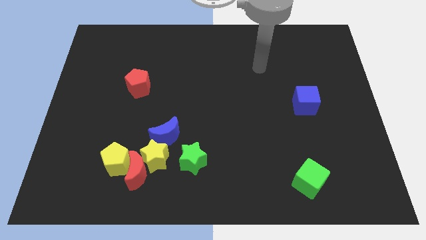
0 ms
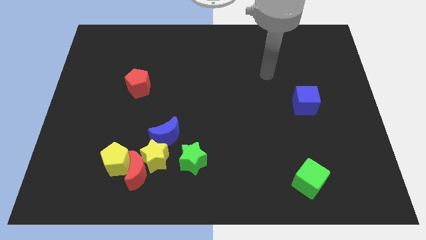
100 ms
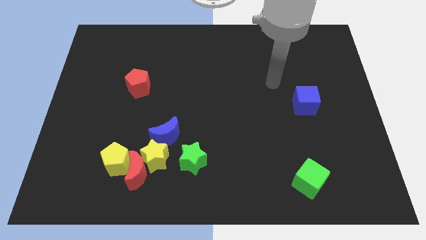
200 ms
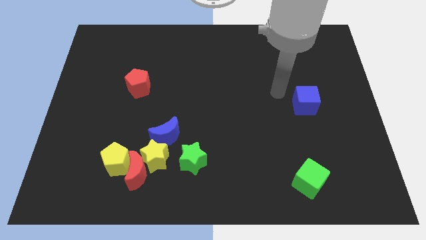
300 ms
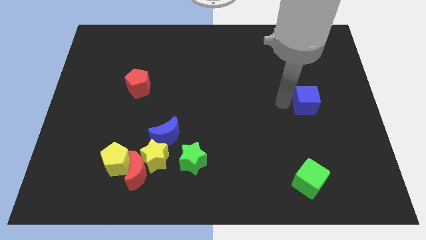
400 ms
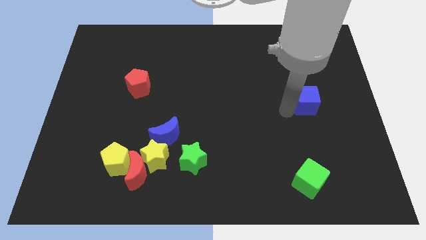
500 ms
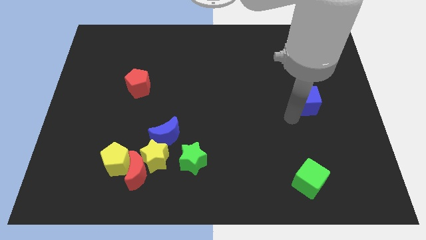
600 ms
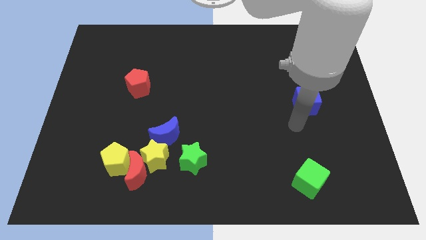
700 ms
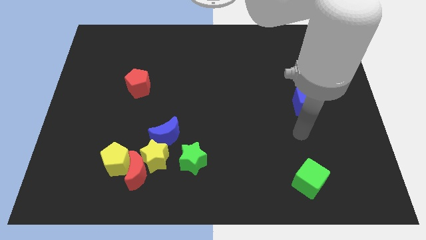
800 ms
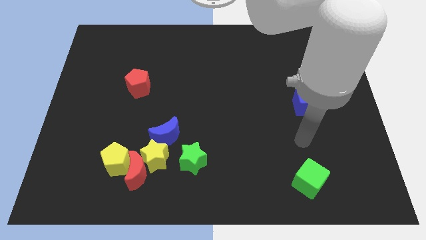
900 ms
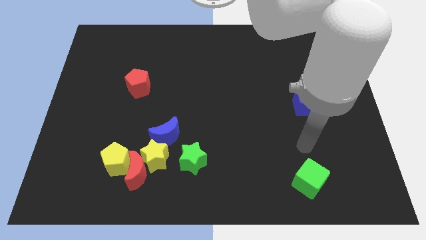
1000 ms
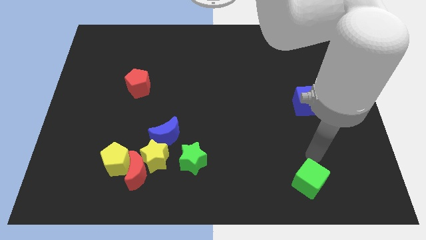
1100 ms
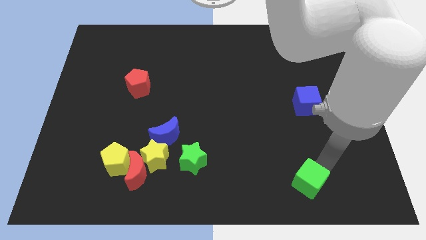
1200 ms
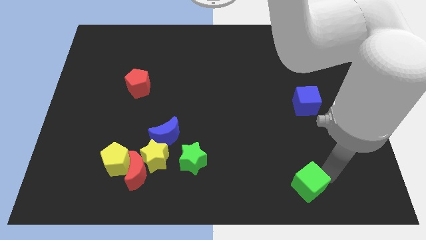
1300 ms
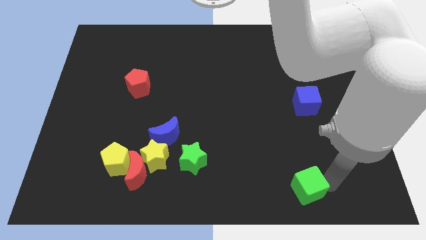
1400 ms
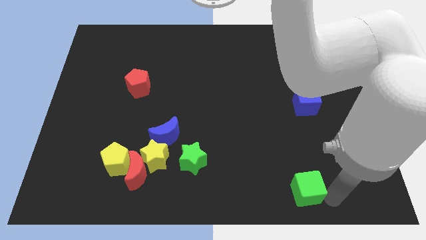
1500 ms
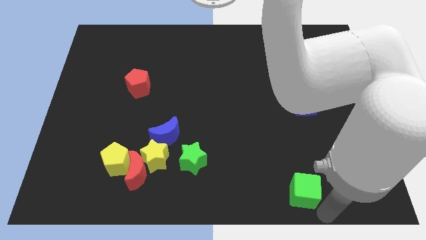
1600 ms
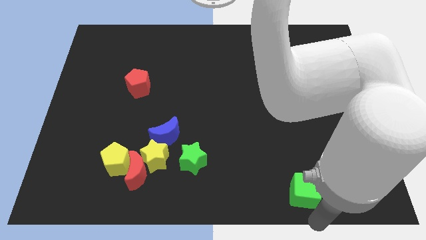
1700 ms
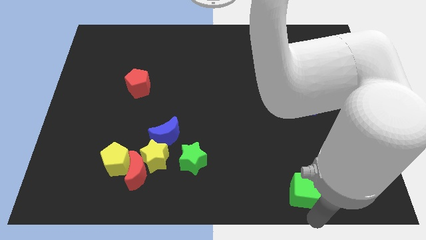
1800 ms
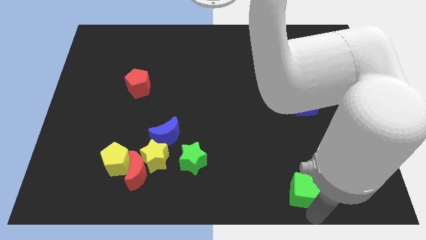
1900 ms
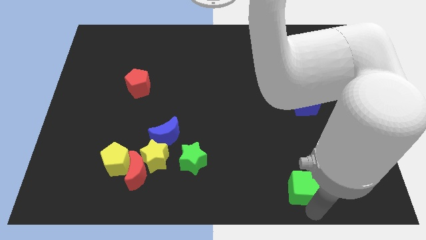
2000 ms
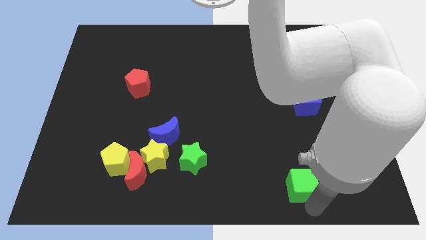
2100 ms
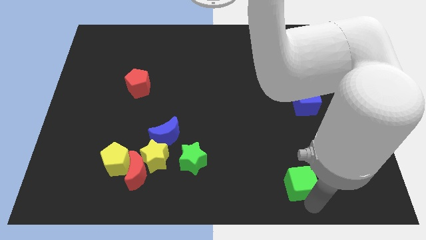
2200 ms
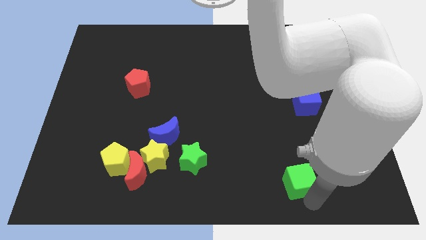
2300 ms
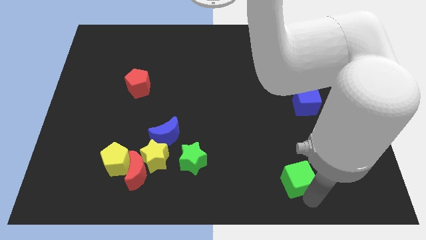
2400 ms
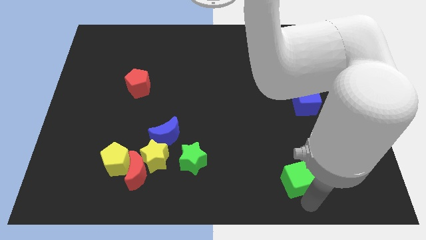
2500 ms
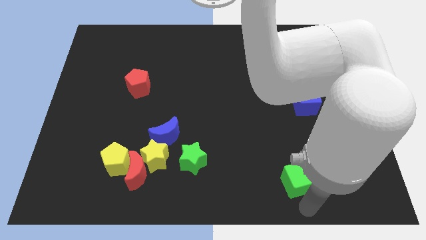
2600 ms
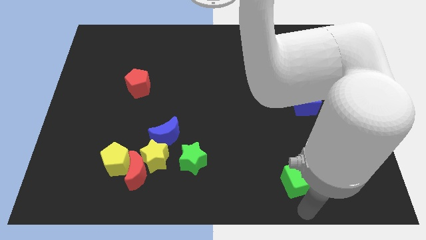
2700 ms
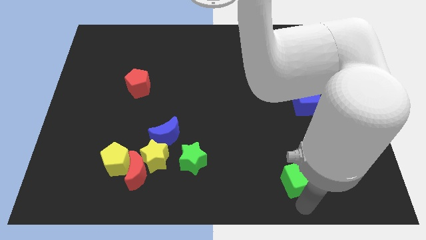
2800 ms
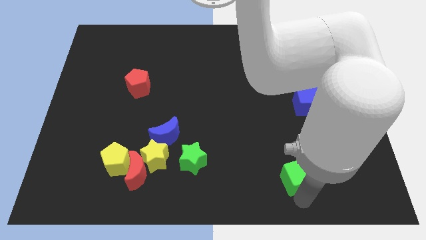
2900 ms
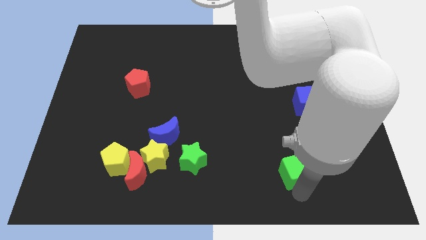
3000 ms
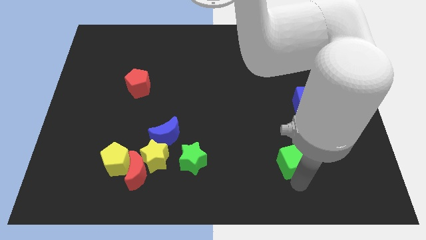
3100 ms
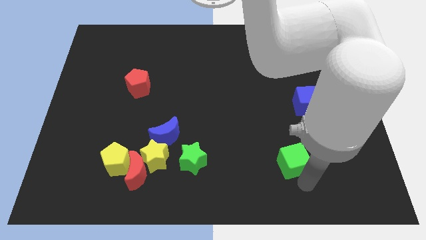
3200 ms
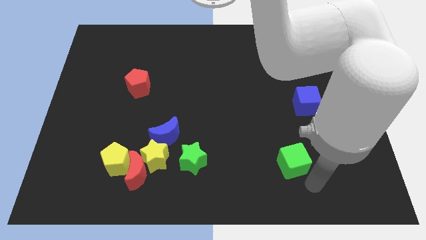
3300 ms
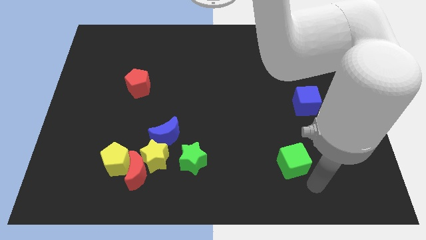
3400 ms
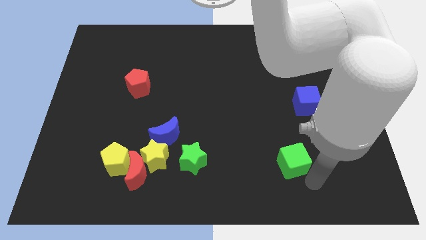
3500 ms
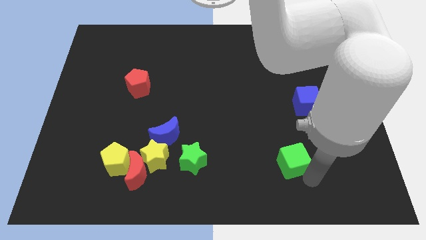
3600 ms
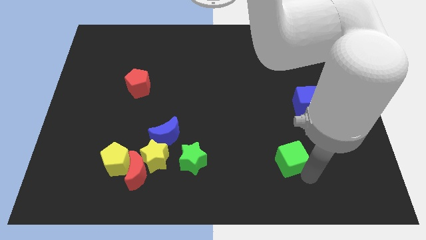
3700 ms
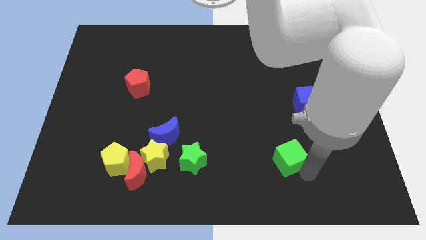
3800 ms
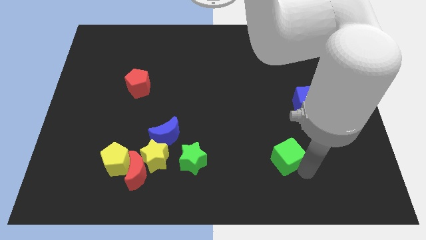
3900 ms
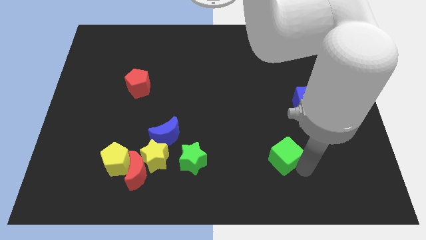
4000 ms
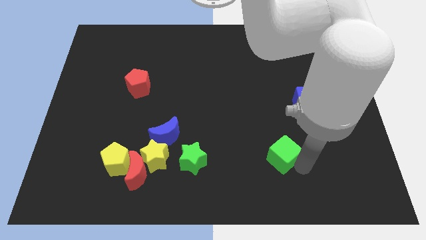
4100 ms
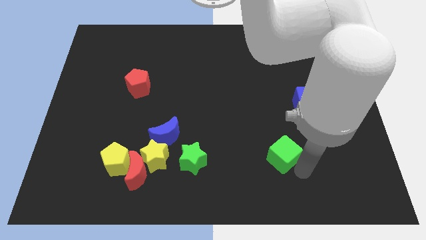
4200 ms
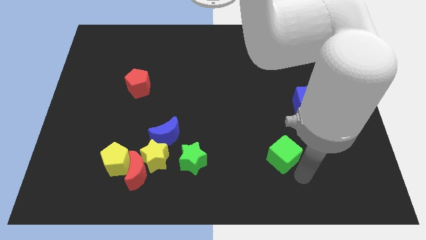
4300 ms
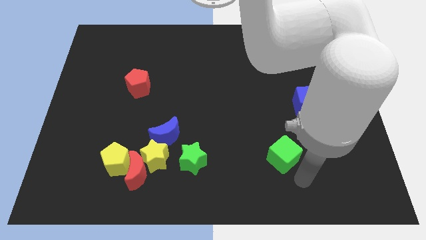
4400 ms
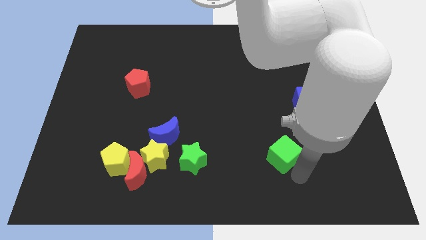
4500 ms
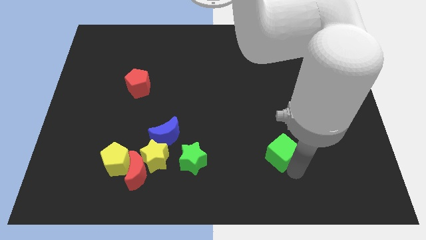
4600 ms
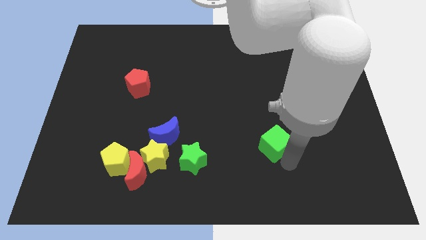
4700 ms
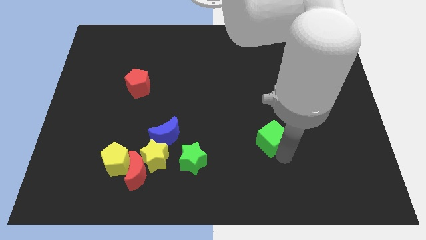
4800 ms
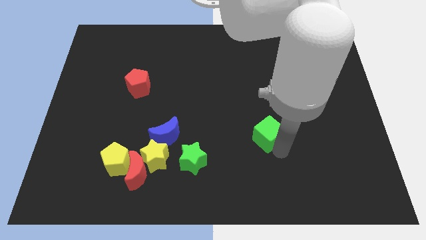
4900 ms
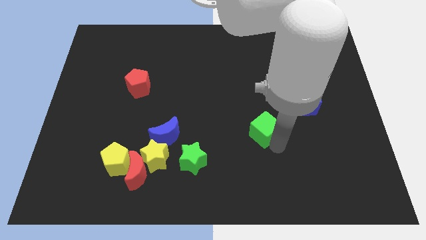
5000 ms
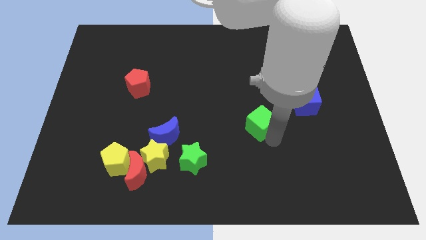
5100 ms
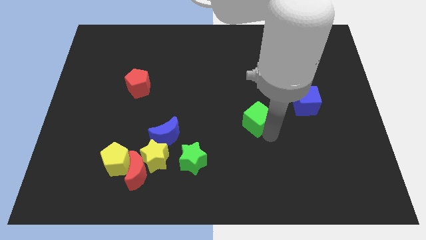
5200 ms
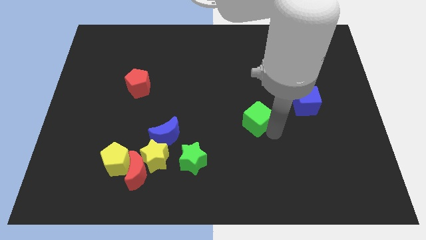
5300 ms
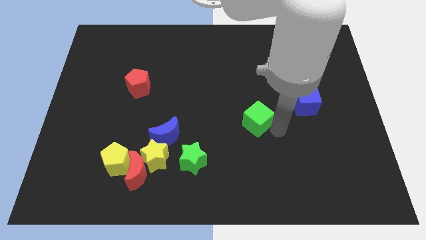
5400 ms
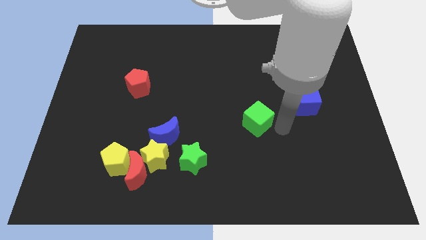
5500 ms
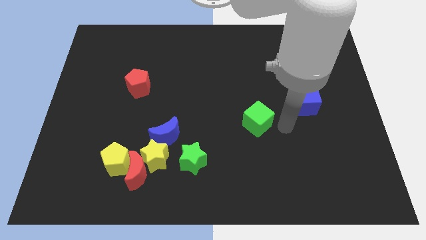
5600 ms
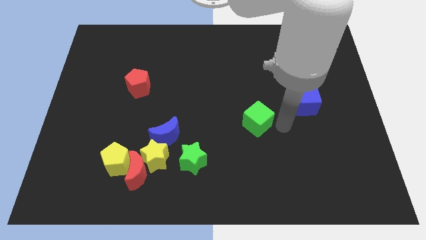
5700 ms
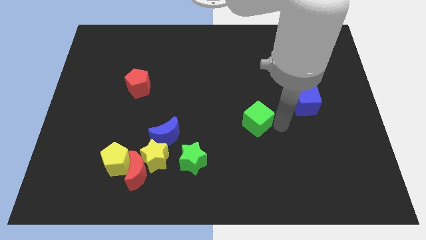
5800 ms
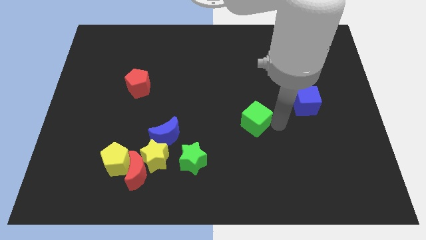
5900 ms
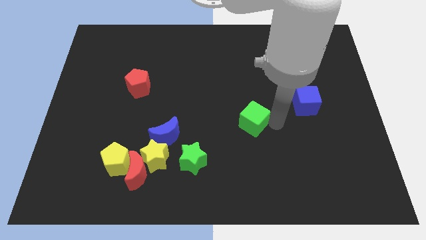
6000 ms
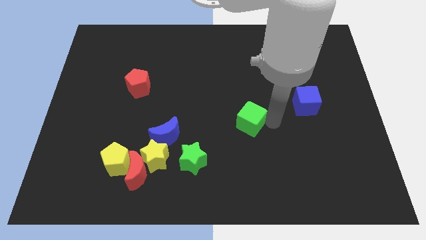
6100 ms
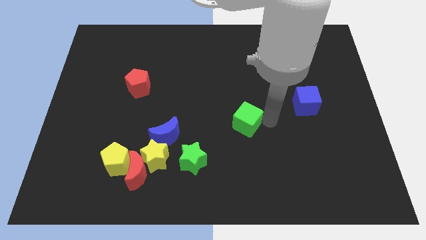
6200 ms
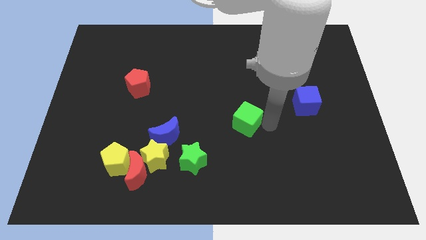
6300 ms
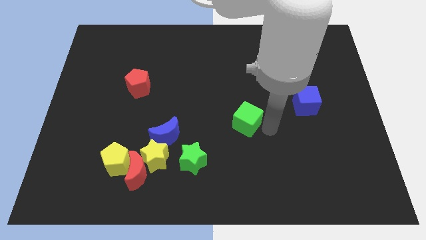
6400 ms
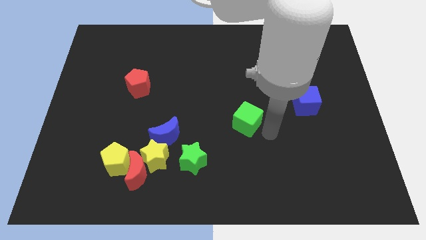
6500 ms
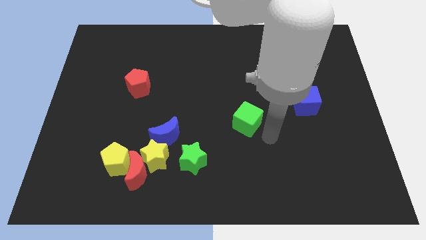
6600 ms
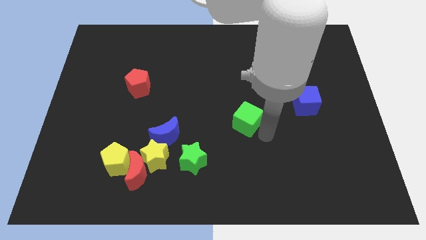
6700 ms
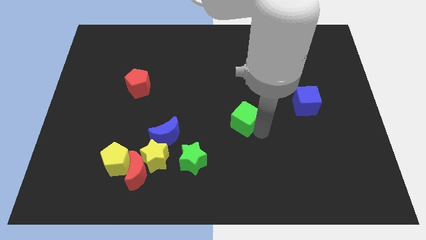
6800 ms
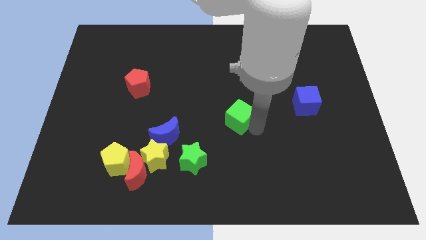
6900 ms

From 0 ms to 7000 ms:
move the green cube diagonally upwards and to the left

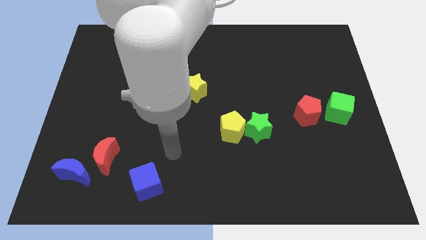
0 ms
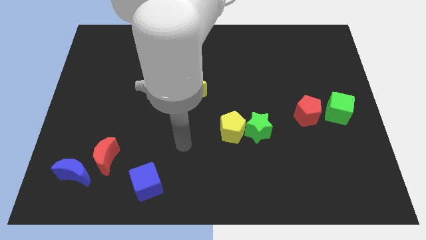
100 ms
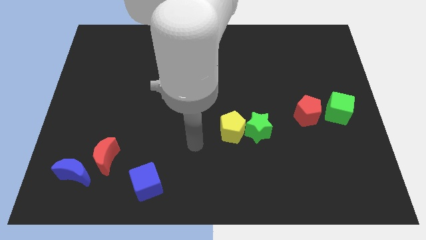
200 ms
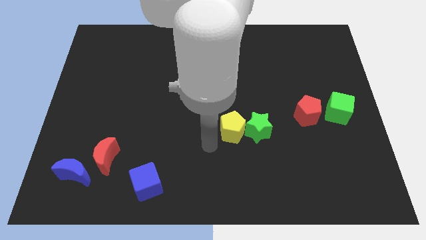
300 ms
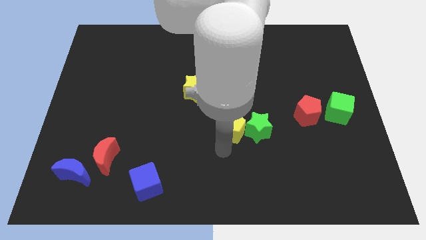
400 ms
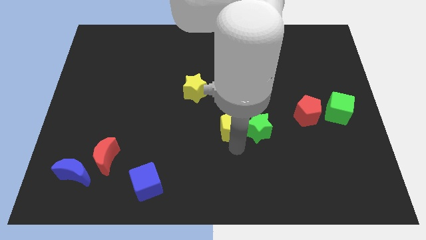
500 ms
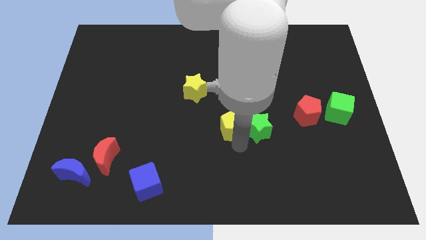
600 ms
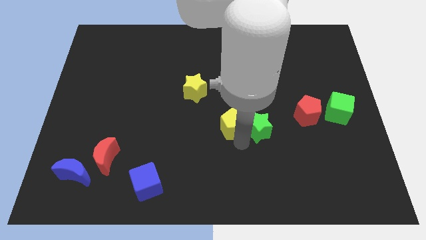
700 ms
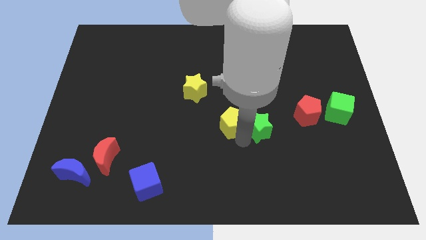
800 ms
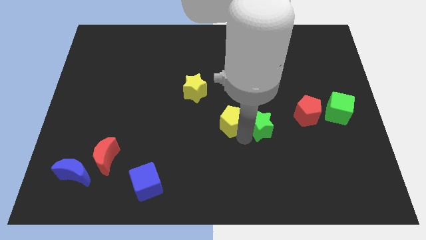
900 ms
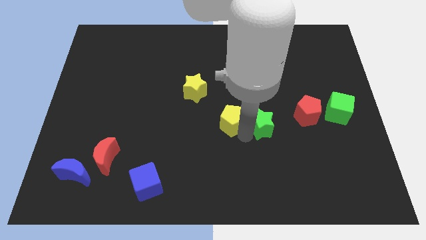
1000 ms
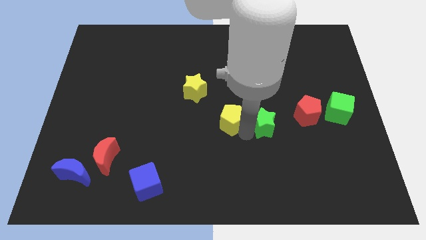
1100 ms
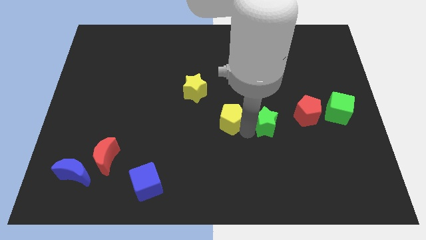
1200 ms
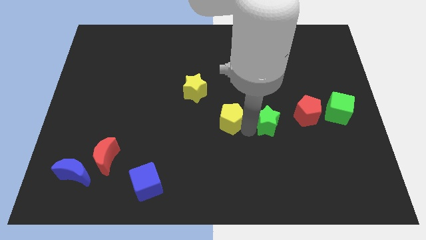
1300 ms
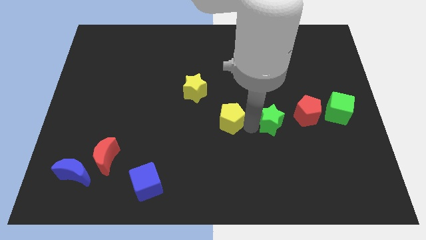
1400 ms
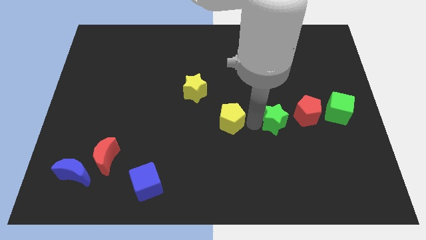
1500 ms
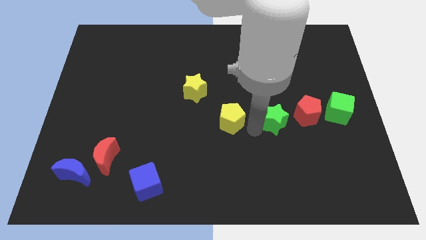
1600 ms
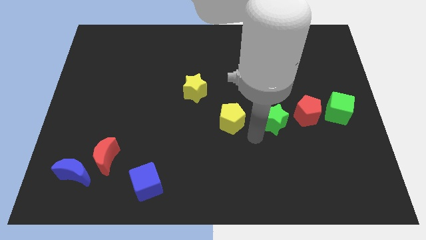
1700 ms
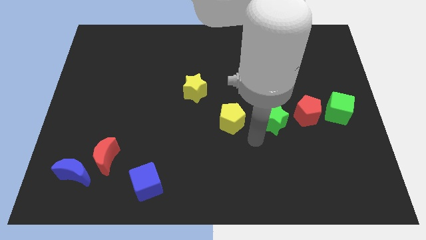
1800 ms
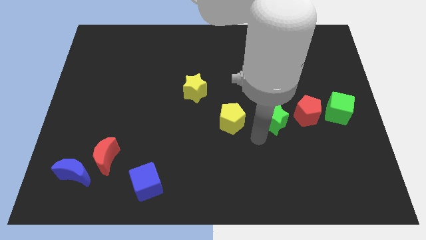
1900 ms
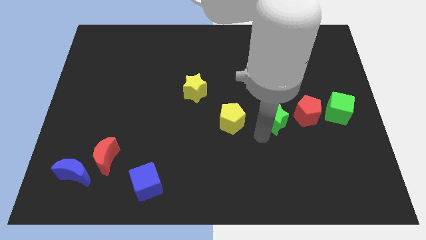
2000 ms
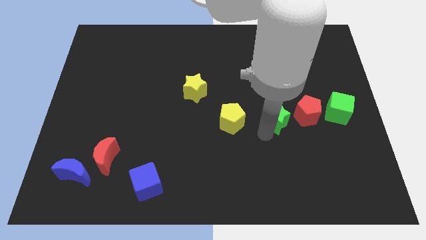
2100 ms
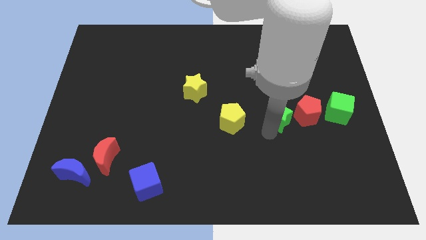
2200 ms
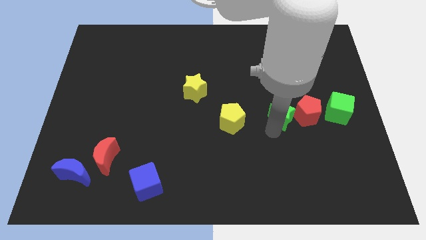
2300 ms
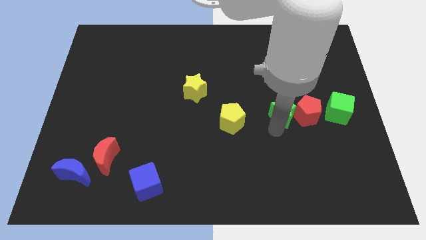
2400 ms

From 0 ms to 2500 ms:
move the green star a bit upwards and to the right diagonally
